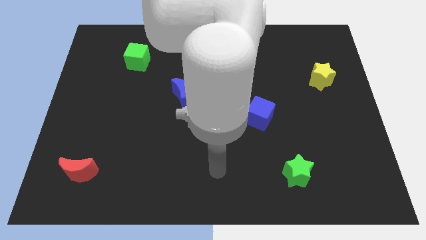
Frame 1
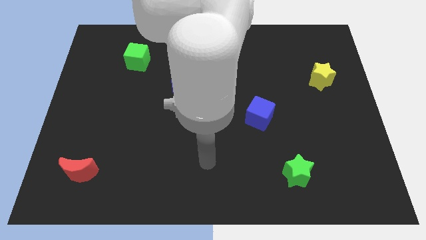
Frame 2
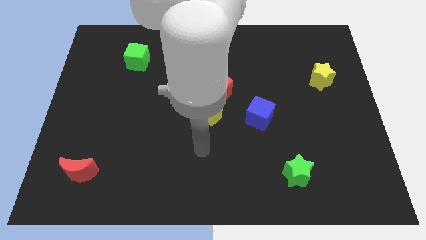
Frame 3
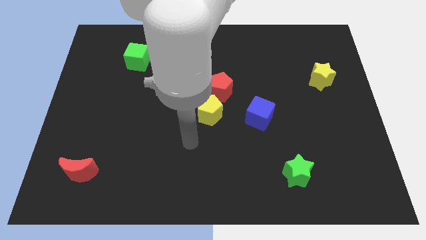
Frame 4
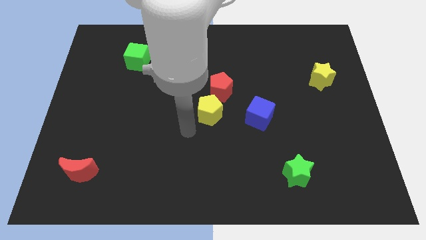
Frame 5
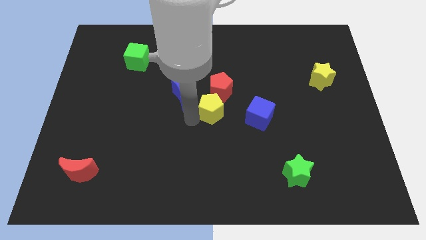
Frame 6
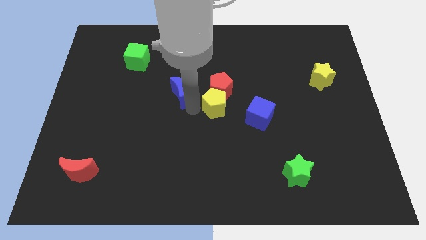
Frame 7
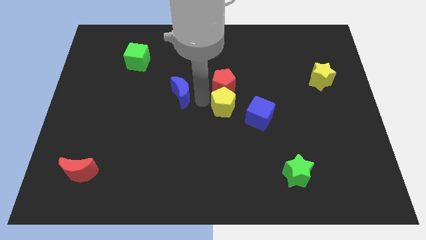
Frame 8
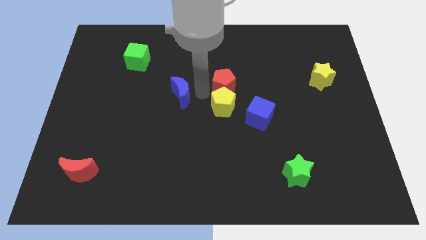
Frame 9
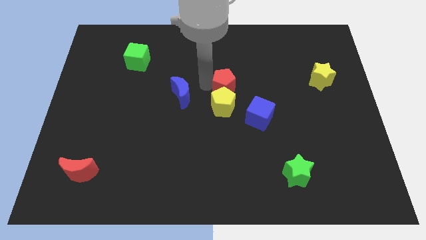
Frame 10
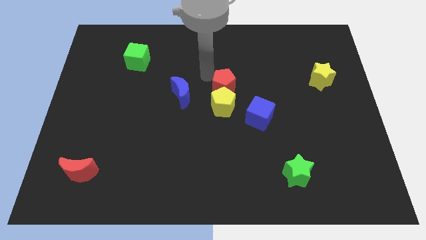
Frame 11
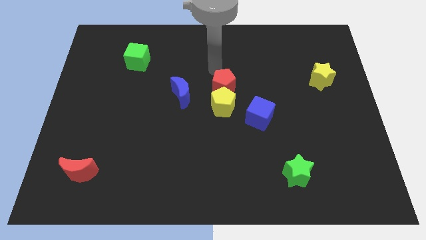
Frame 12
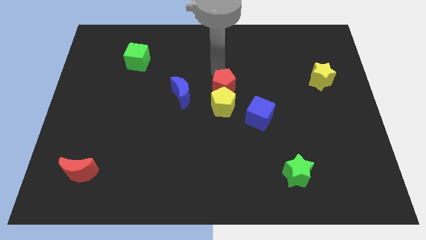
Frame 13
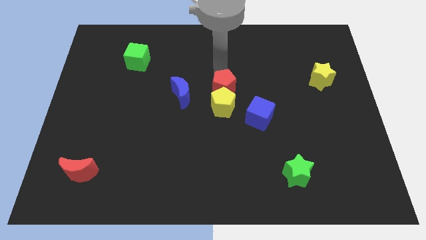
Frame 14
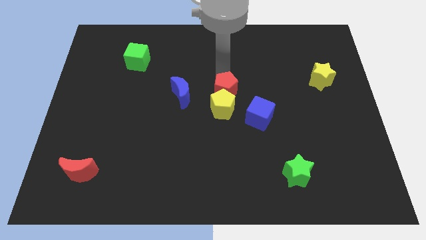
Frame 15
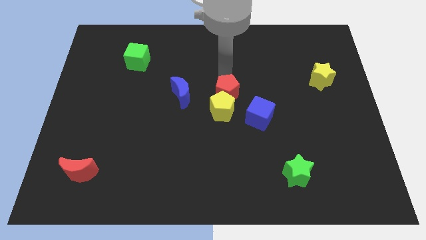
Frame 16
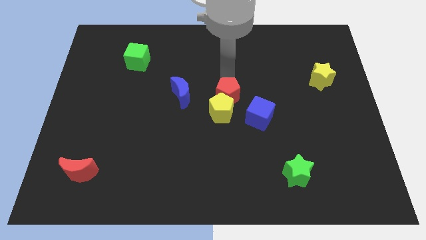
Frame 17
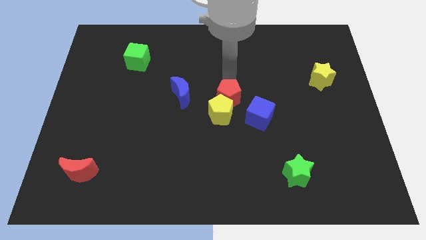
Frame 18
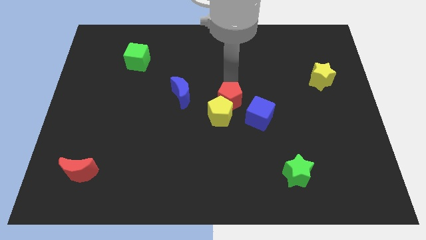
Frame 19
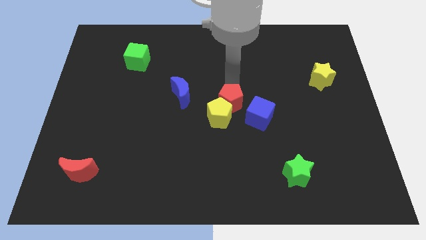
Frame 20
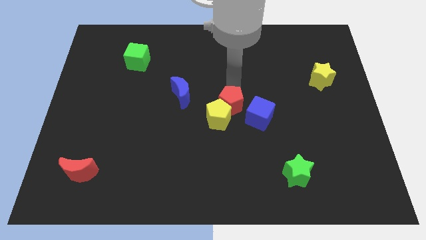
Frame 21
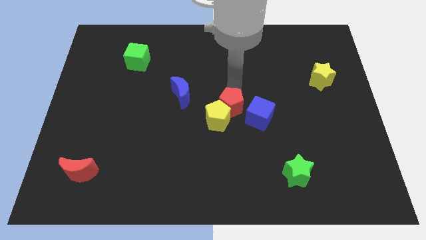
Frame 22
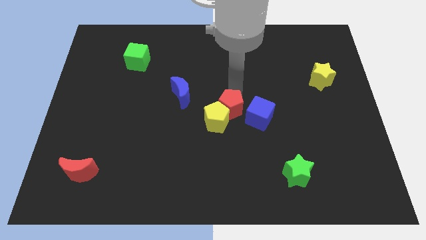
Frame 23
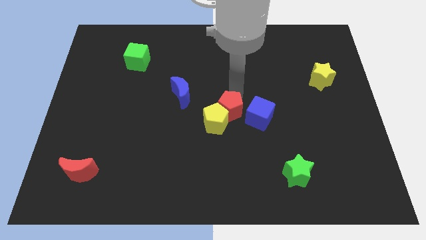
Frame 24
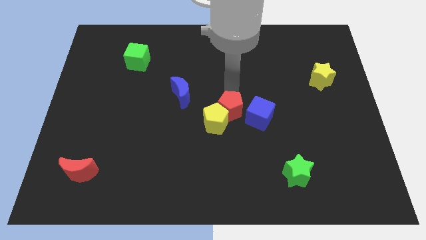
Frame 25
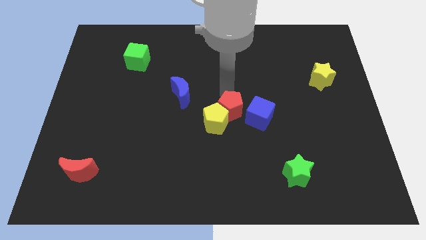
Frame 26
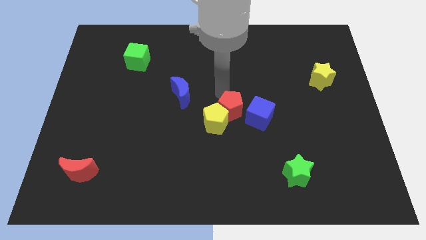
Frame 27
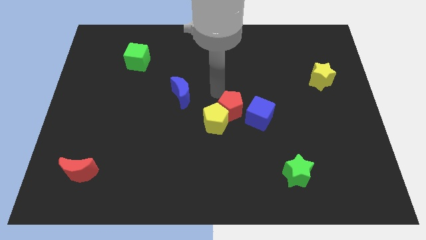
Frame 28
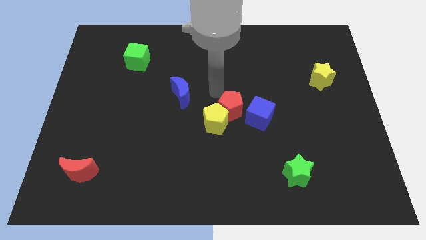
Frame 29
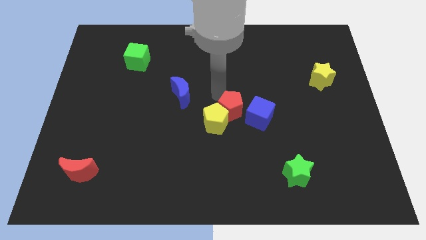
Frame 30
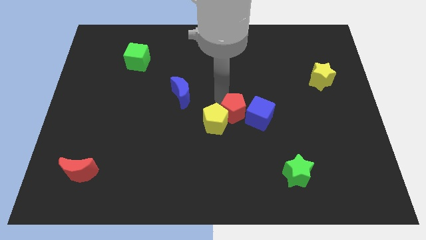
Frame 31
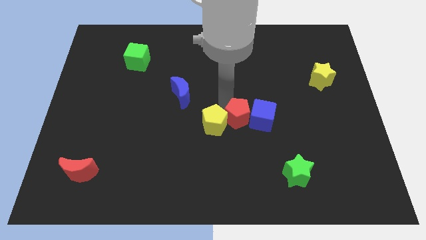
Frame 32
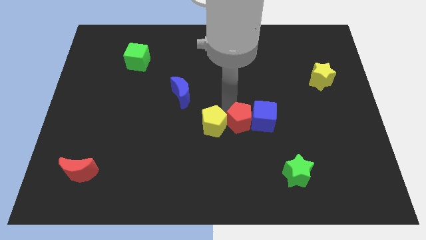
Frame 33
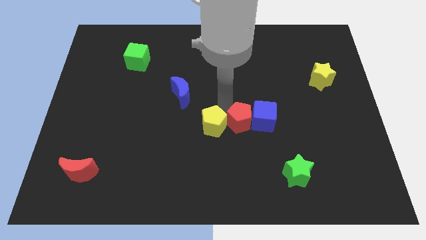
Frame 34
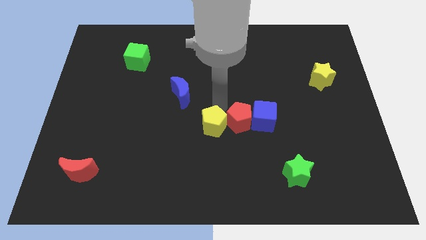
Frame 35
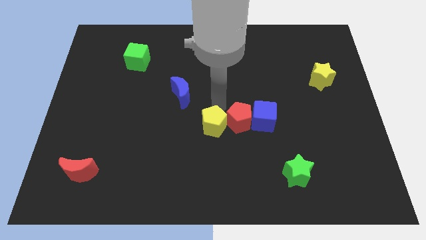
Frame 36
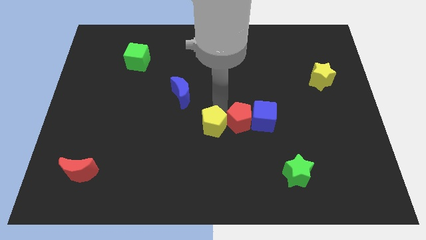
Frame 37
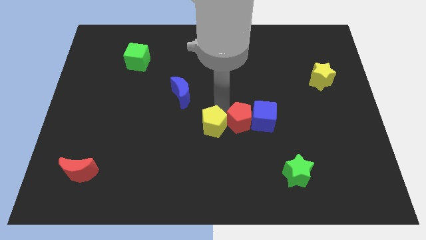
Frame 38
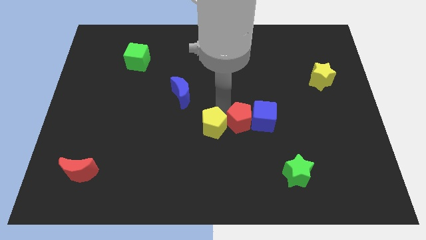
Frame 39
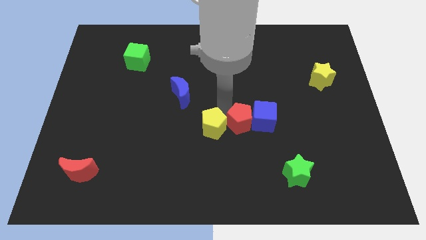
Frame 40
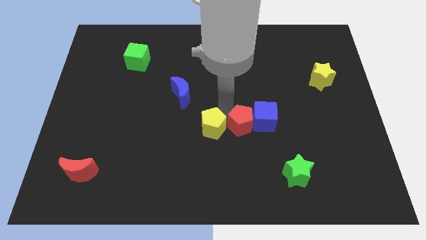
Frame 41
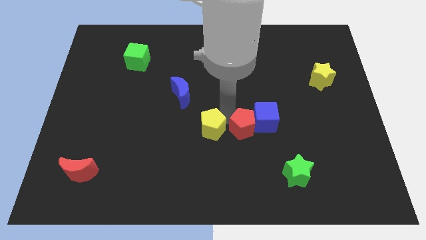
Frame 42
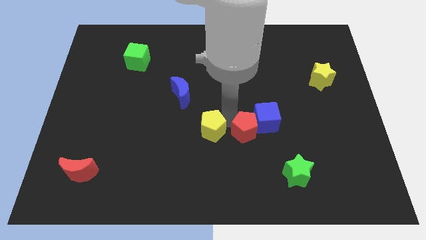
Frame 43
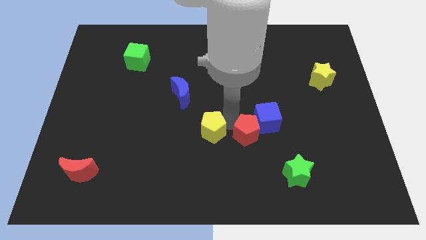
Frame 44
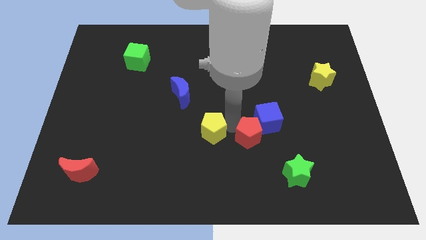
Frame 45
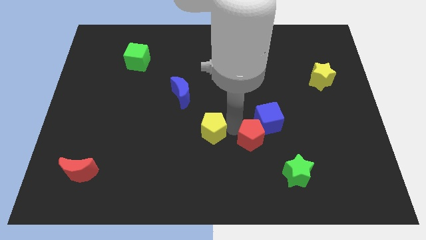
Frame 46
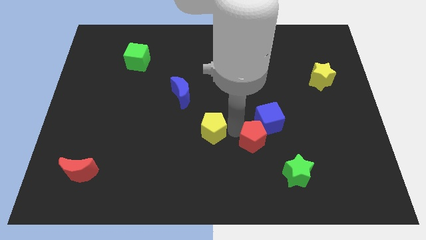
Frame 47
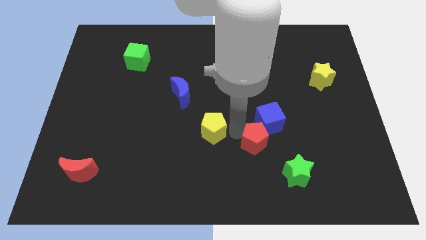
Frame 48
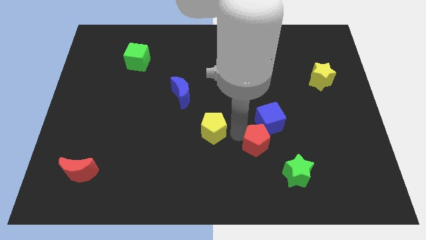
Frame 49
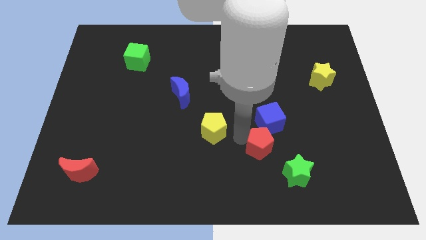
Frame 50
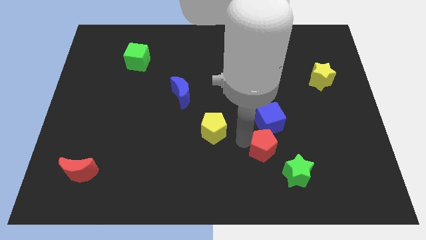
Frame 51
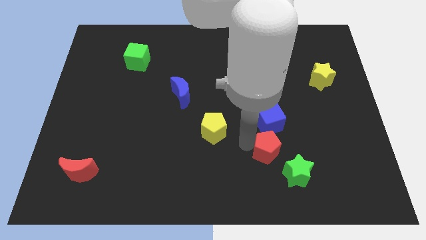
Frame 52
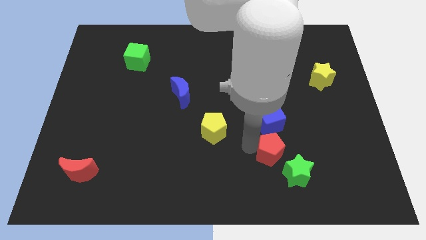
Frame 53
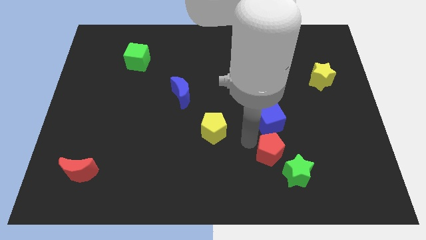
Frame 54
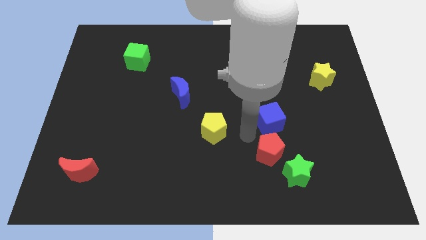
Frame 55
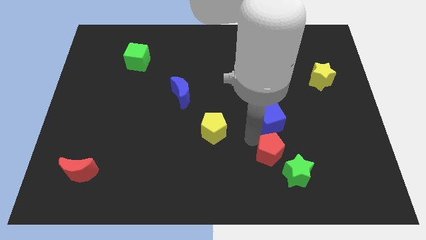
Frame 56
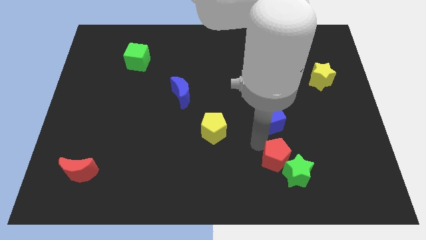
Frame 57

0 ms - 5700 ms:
put the red pentagon next to the green star

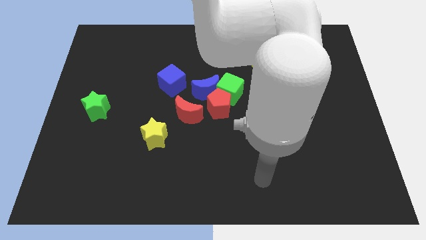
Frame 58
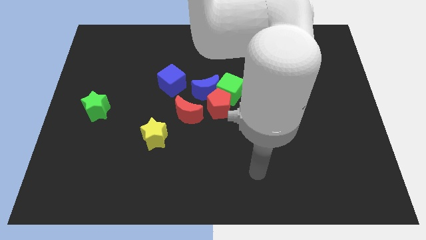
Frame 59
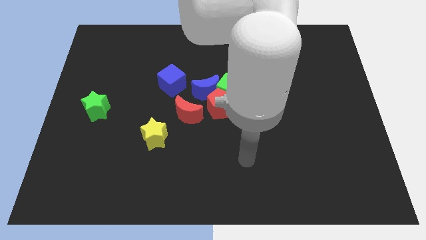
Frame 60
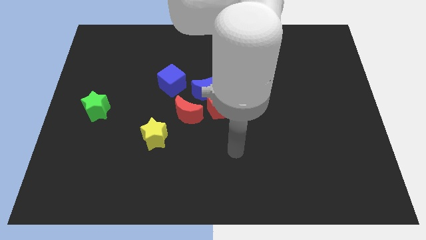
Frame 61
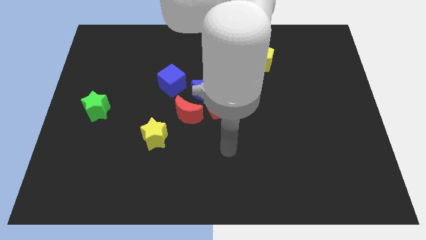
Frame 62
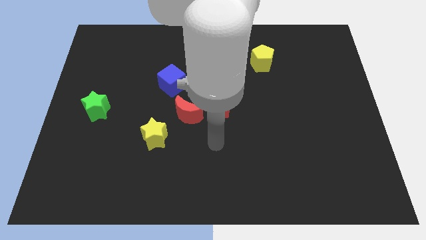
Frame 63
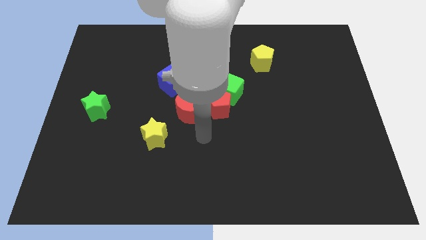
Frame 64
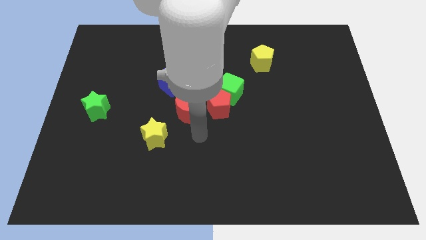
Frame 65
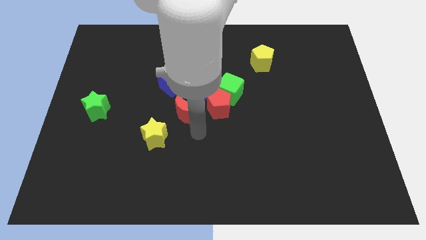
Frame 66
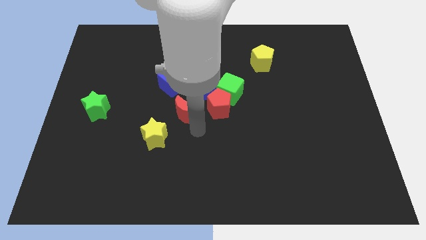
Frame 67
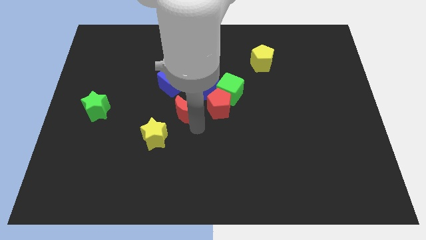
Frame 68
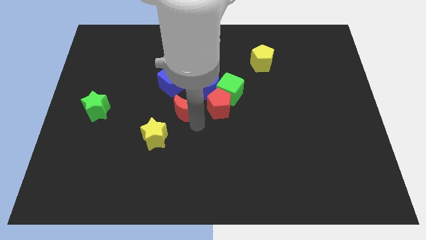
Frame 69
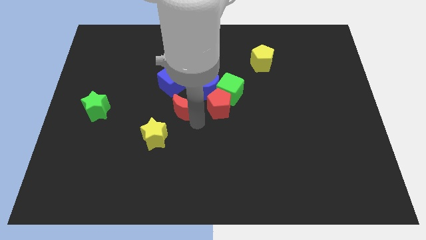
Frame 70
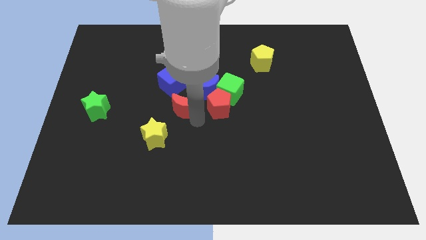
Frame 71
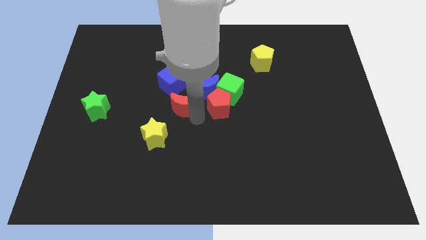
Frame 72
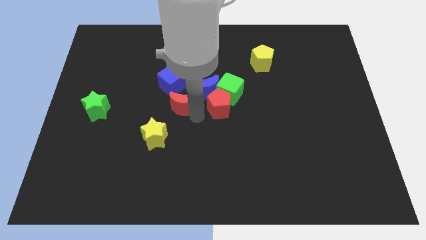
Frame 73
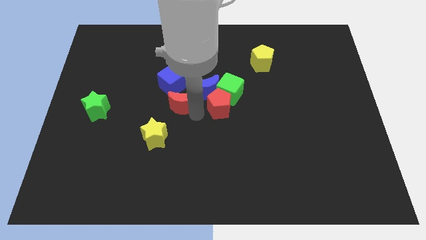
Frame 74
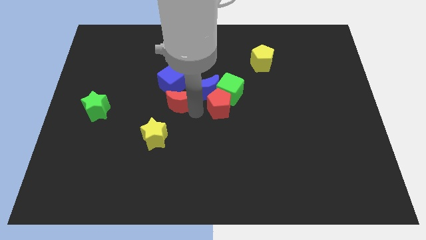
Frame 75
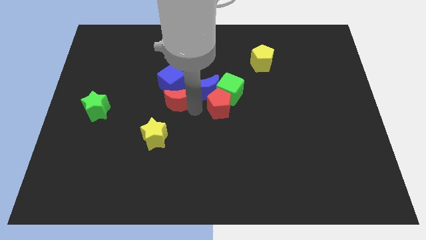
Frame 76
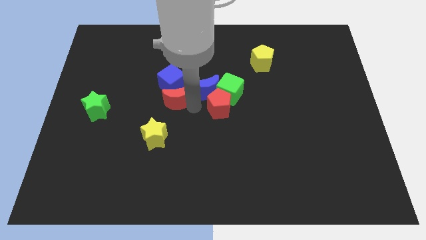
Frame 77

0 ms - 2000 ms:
move the red moon next to the blue cube
